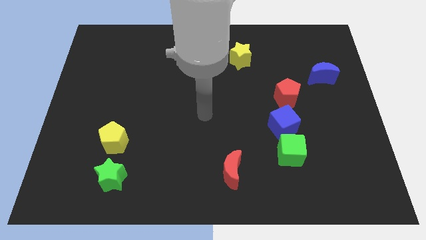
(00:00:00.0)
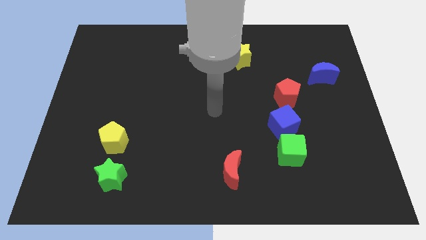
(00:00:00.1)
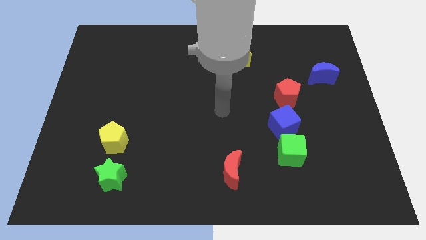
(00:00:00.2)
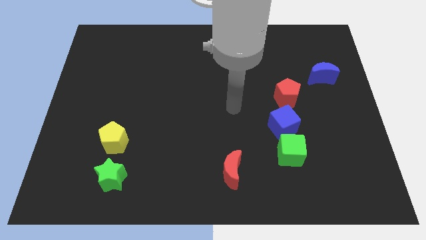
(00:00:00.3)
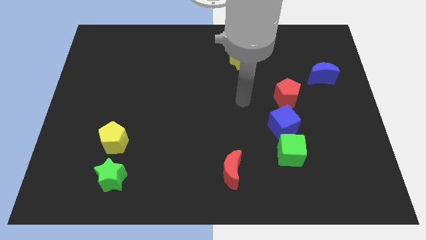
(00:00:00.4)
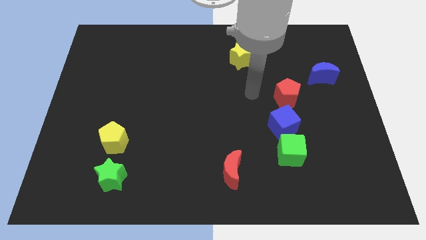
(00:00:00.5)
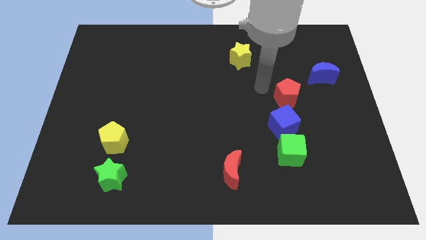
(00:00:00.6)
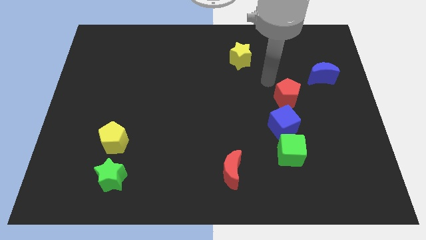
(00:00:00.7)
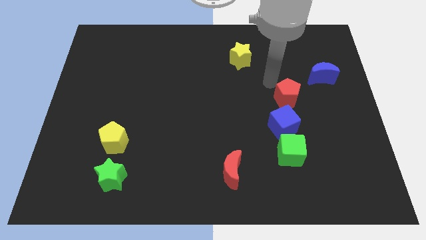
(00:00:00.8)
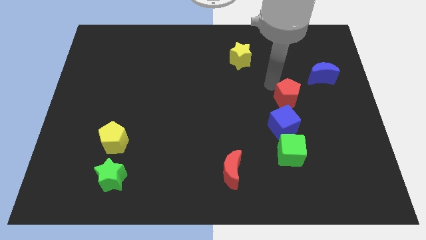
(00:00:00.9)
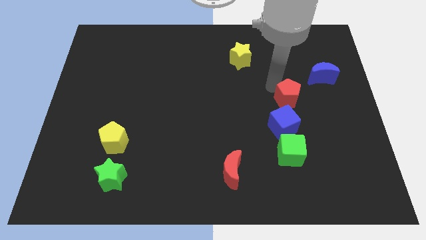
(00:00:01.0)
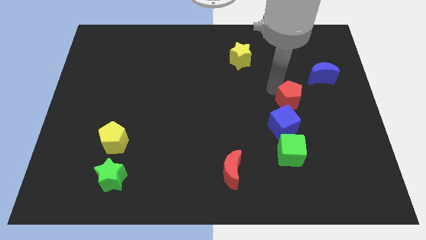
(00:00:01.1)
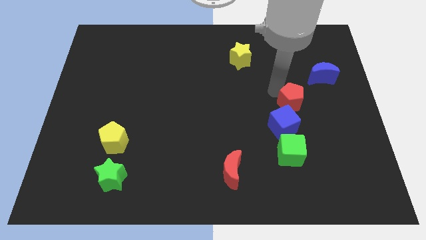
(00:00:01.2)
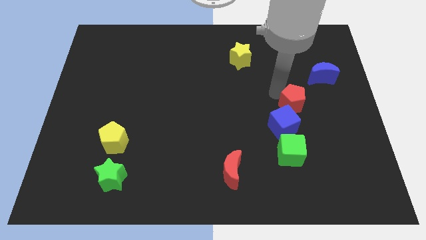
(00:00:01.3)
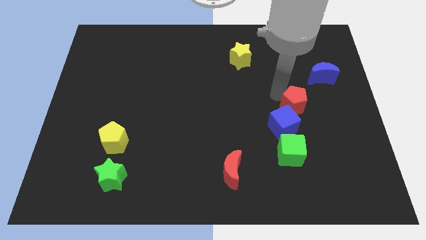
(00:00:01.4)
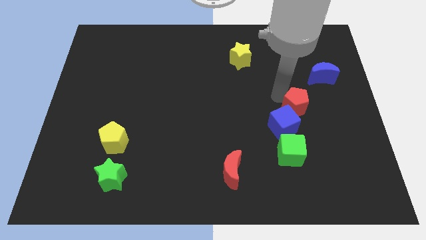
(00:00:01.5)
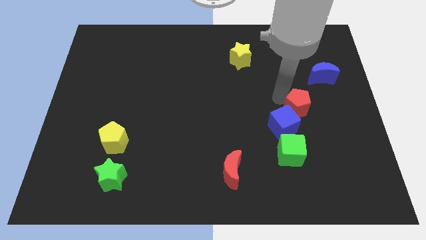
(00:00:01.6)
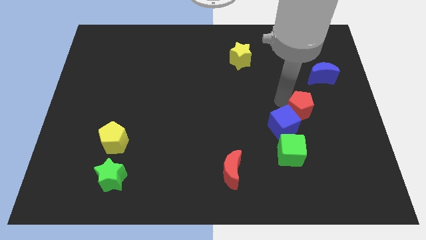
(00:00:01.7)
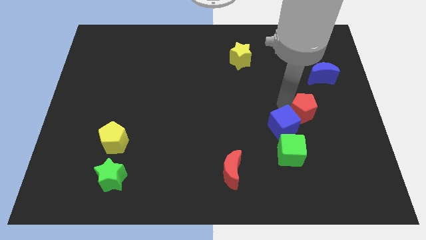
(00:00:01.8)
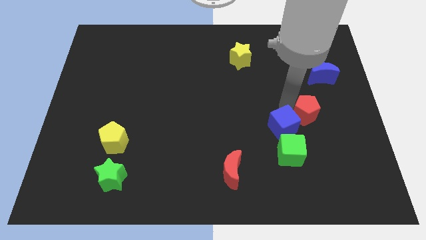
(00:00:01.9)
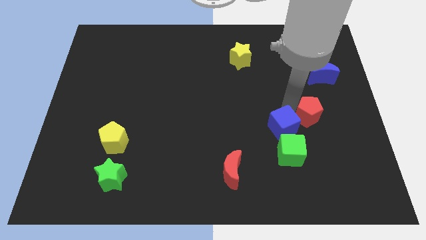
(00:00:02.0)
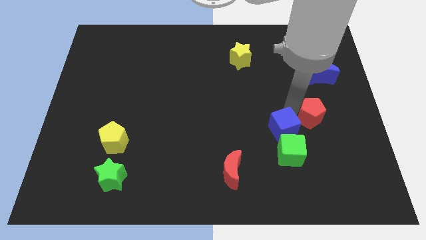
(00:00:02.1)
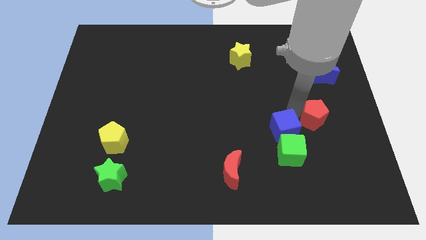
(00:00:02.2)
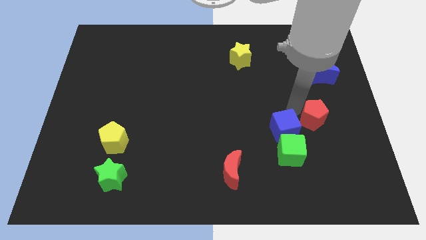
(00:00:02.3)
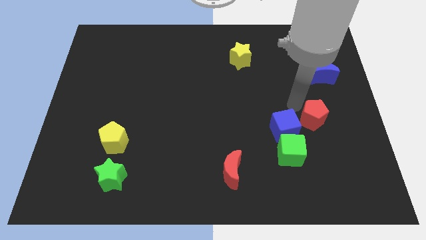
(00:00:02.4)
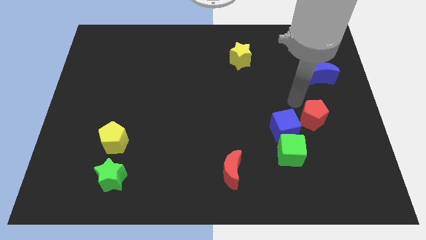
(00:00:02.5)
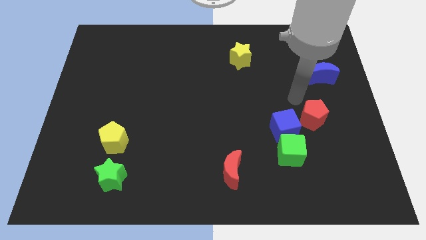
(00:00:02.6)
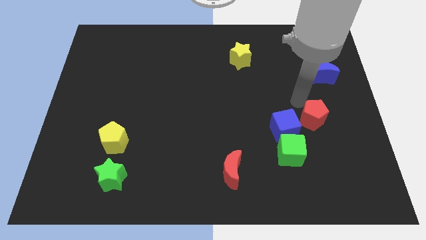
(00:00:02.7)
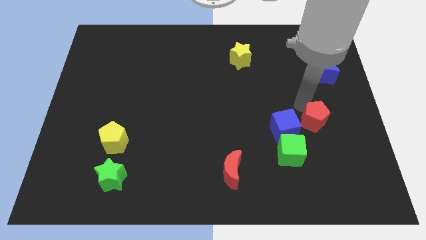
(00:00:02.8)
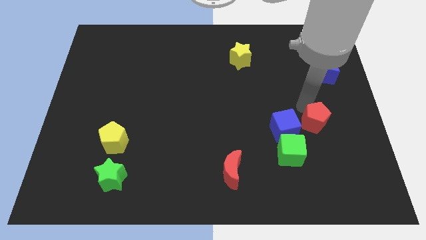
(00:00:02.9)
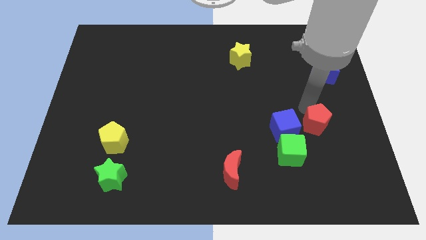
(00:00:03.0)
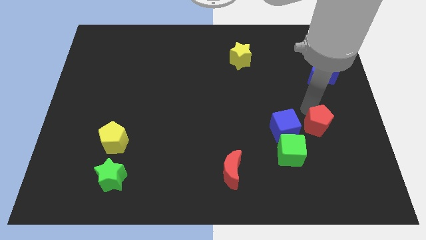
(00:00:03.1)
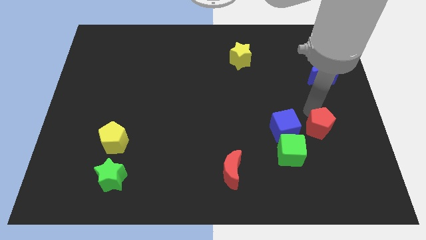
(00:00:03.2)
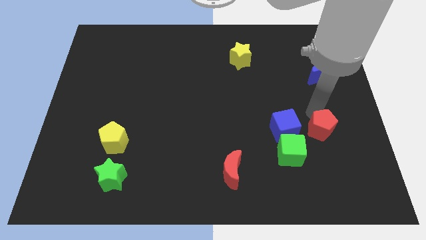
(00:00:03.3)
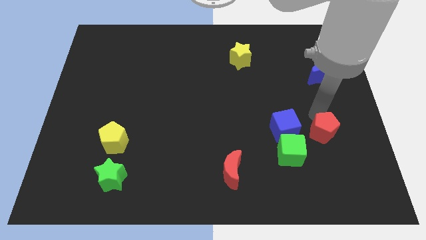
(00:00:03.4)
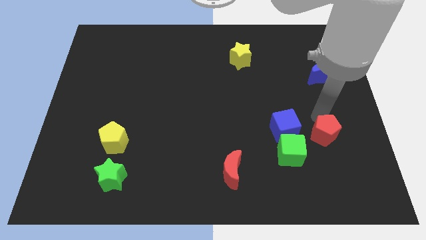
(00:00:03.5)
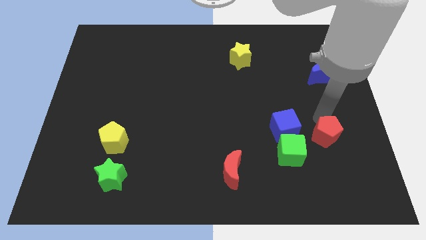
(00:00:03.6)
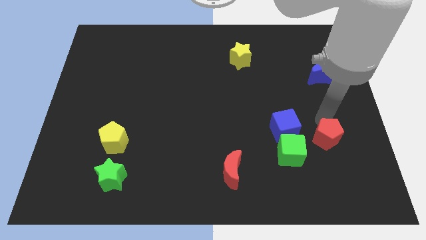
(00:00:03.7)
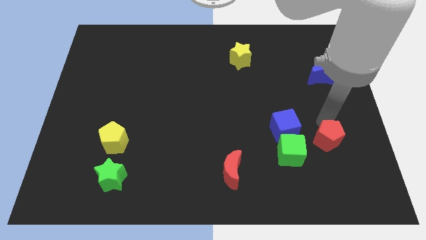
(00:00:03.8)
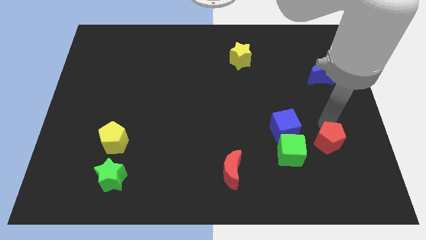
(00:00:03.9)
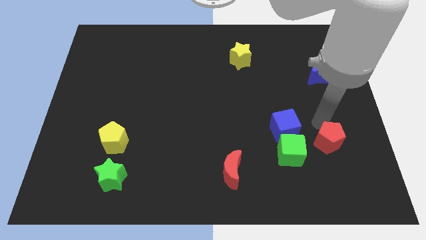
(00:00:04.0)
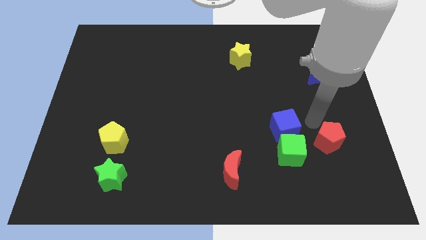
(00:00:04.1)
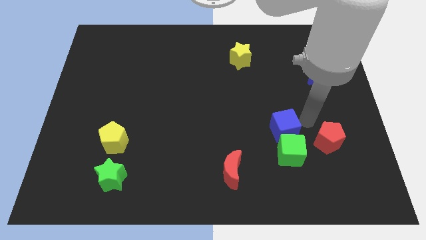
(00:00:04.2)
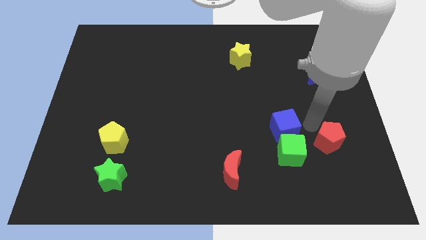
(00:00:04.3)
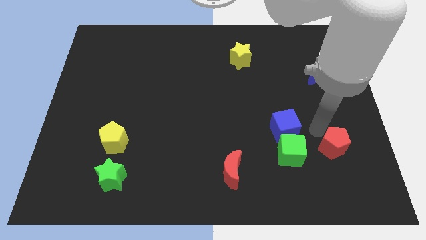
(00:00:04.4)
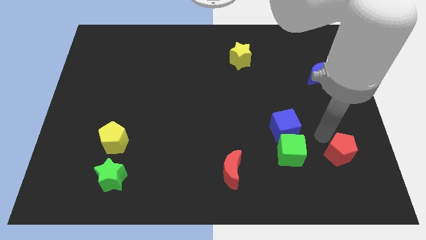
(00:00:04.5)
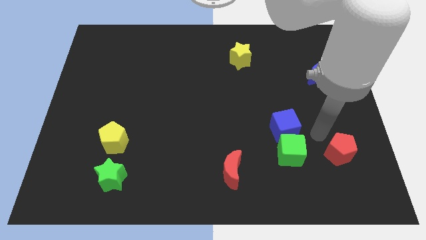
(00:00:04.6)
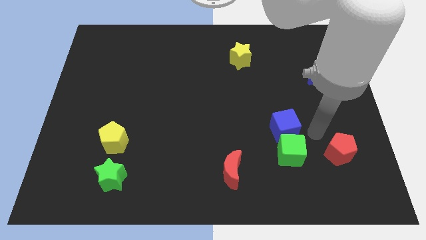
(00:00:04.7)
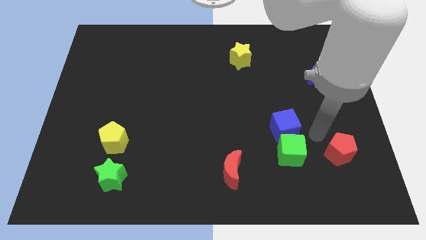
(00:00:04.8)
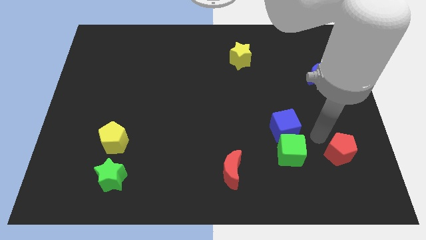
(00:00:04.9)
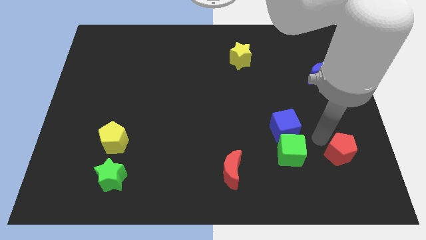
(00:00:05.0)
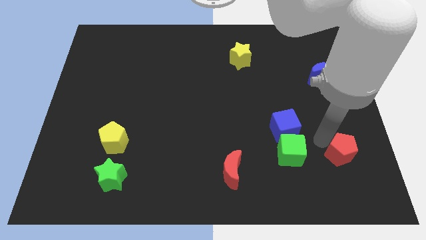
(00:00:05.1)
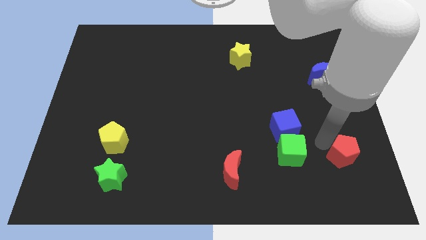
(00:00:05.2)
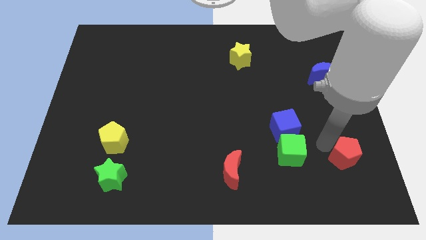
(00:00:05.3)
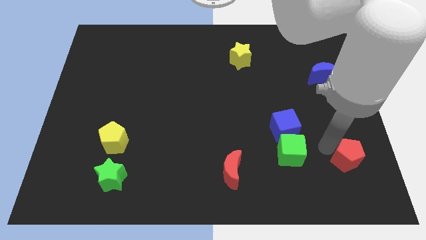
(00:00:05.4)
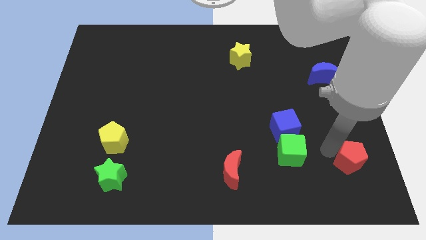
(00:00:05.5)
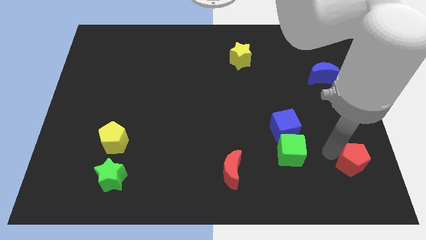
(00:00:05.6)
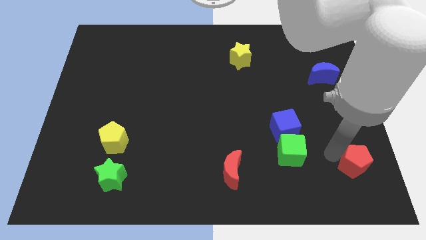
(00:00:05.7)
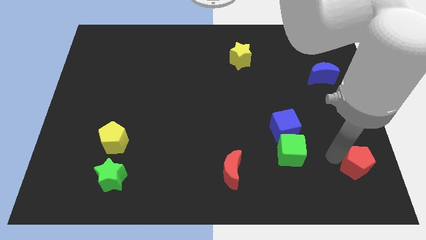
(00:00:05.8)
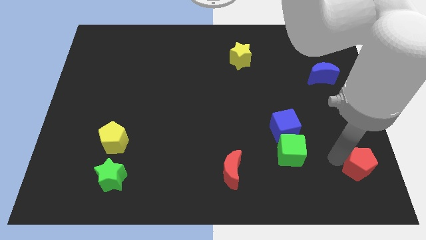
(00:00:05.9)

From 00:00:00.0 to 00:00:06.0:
push the red pentagon to the bottom right corner
